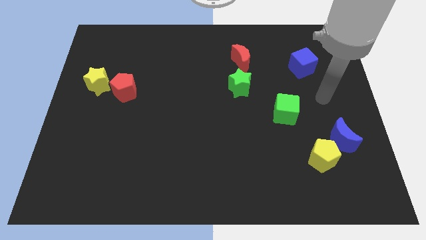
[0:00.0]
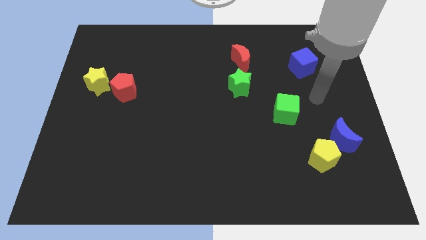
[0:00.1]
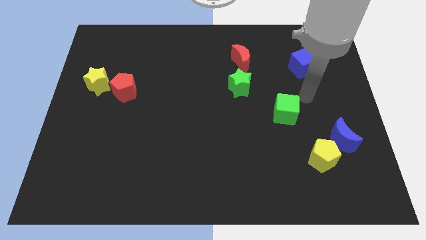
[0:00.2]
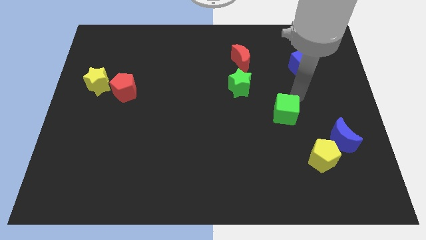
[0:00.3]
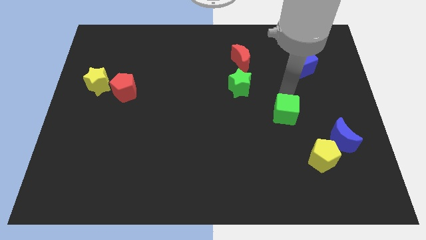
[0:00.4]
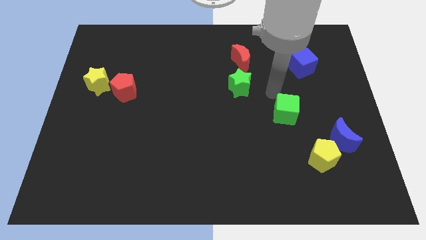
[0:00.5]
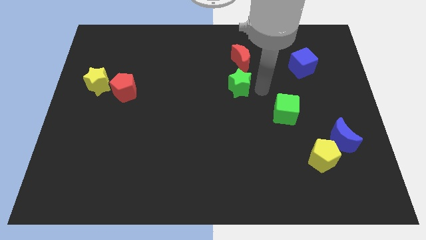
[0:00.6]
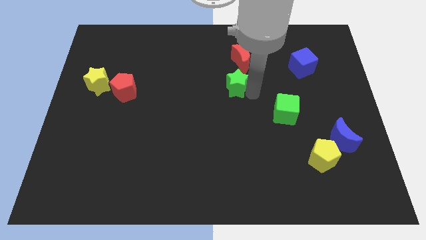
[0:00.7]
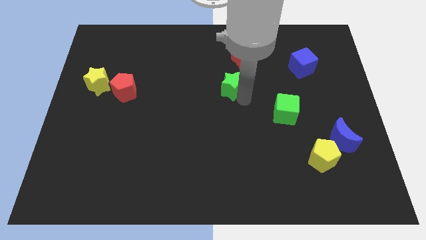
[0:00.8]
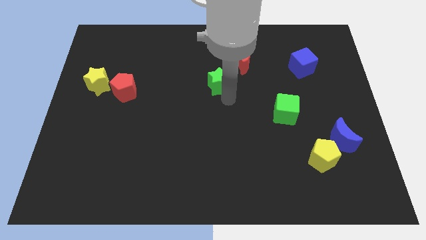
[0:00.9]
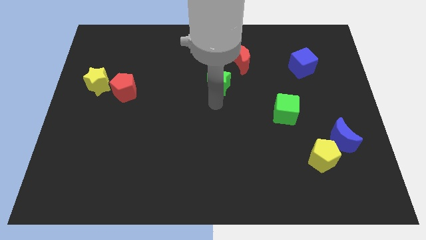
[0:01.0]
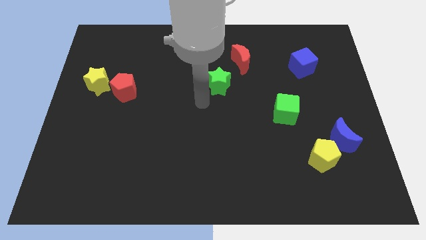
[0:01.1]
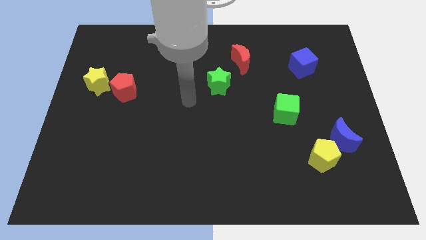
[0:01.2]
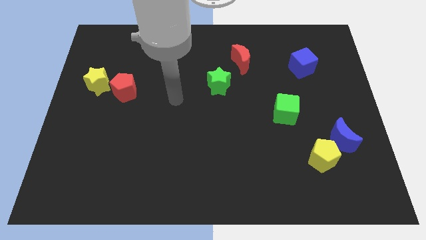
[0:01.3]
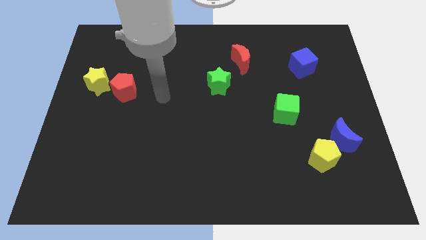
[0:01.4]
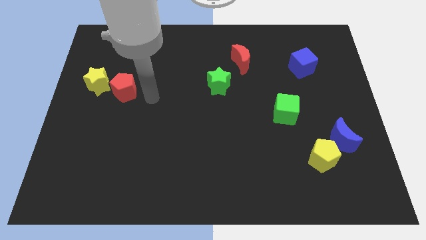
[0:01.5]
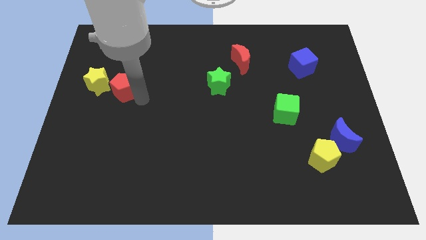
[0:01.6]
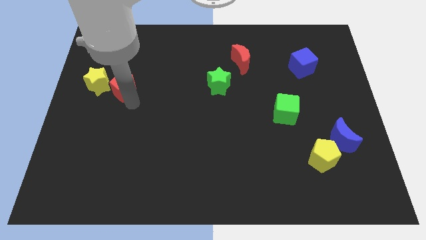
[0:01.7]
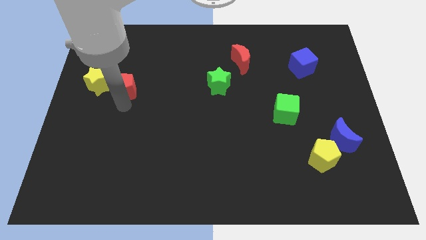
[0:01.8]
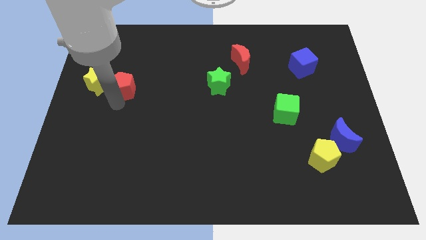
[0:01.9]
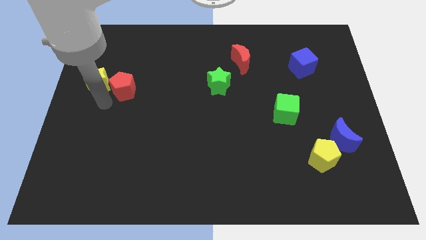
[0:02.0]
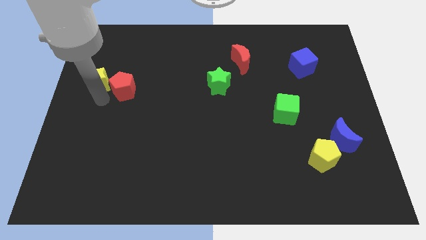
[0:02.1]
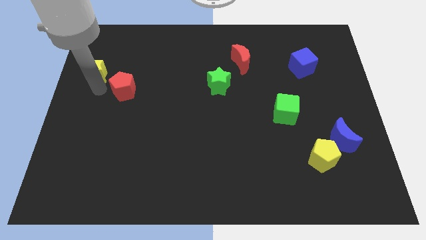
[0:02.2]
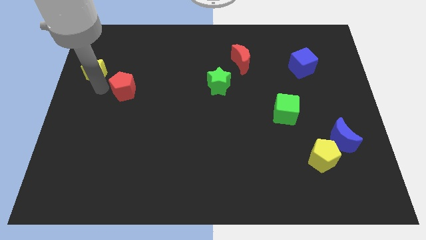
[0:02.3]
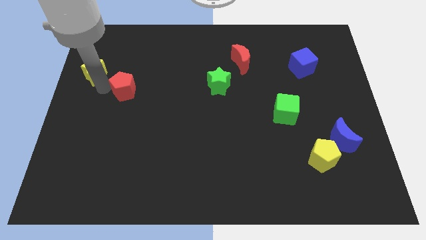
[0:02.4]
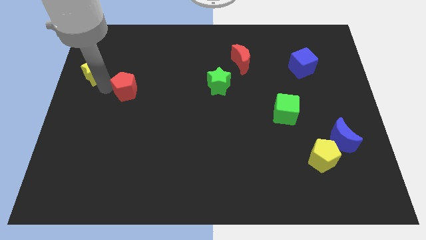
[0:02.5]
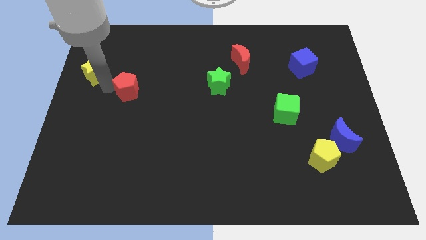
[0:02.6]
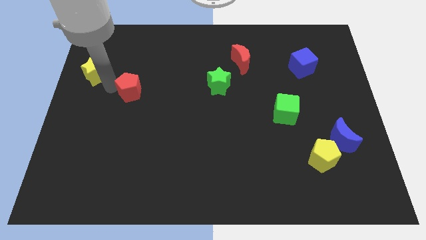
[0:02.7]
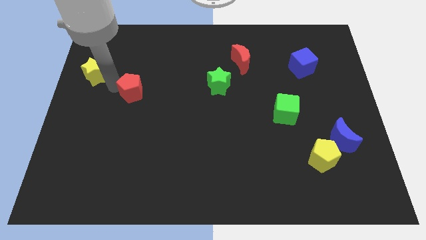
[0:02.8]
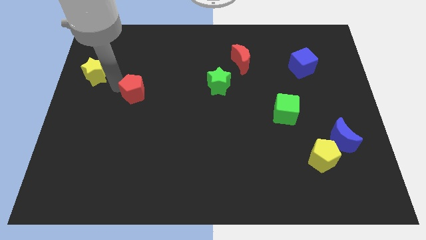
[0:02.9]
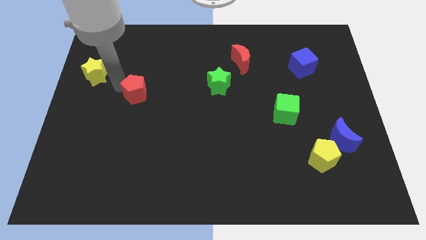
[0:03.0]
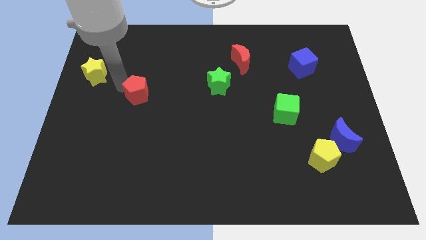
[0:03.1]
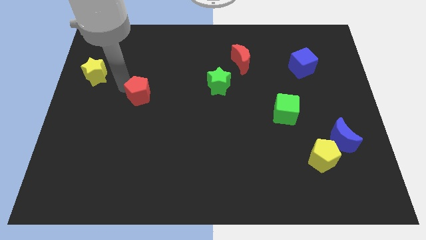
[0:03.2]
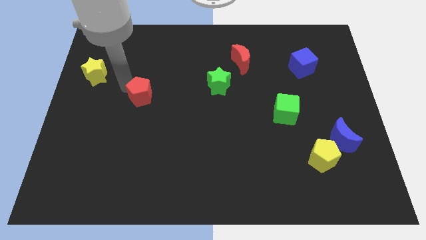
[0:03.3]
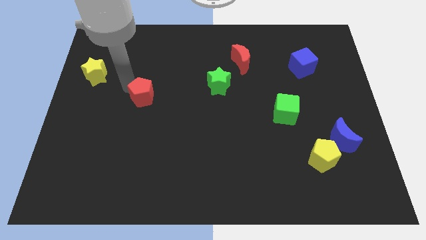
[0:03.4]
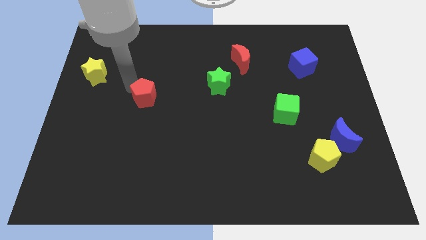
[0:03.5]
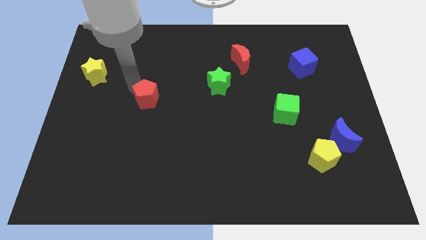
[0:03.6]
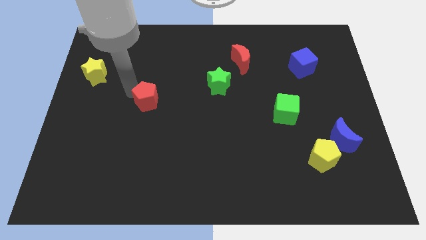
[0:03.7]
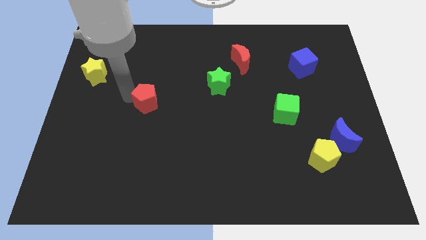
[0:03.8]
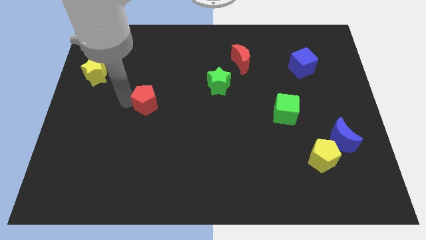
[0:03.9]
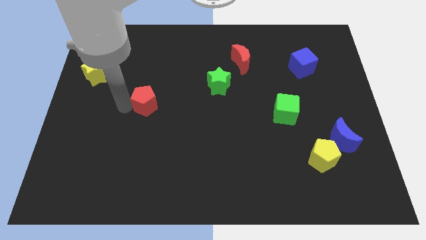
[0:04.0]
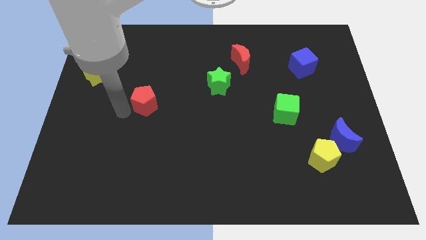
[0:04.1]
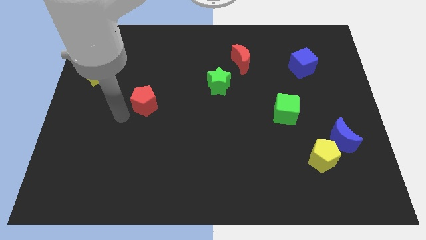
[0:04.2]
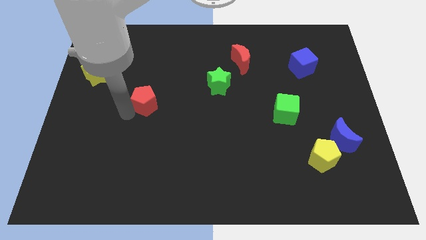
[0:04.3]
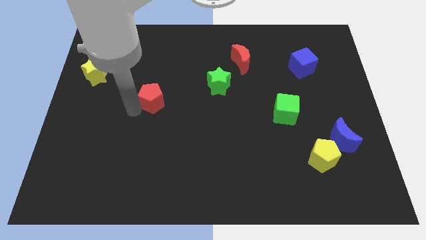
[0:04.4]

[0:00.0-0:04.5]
slightly move the red pentagon to the right

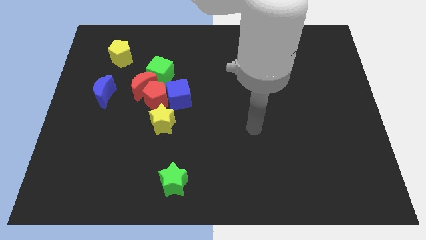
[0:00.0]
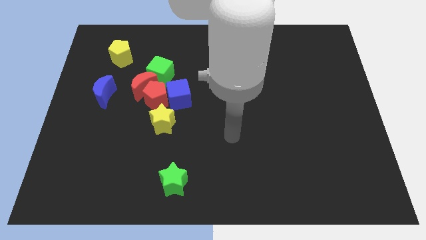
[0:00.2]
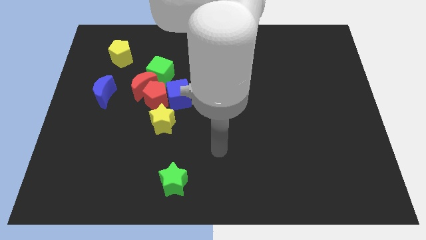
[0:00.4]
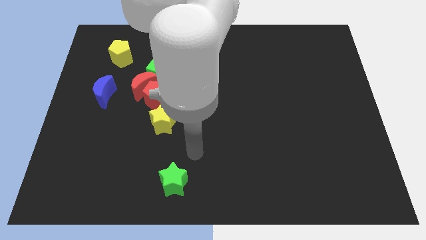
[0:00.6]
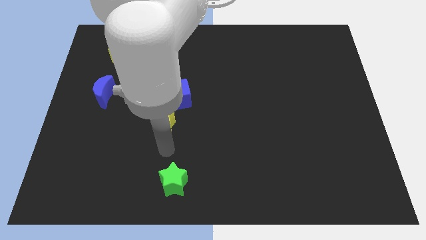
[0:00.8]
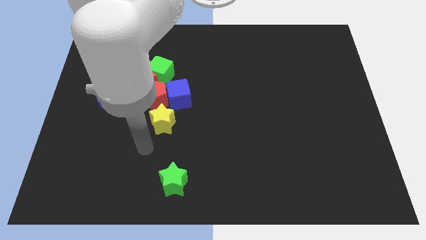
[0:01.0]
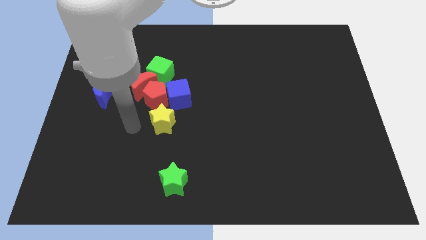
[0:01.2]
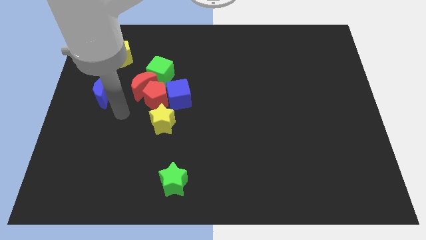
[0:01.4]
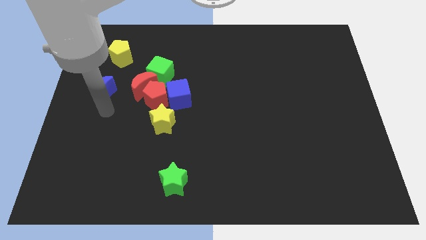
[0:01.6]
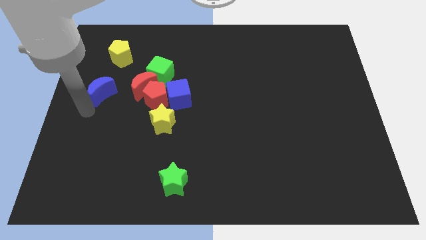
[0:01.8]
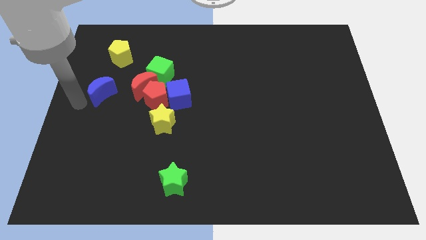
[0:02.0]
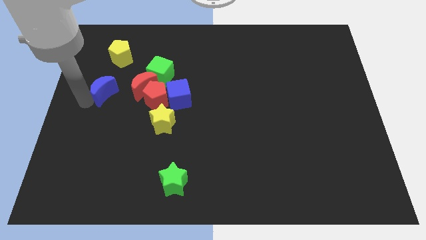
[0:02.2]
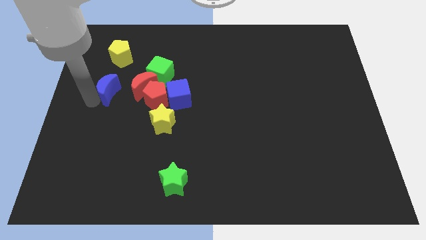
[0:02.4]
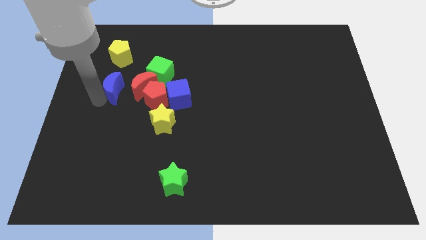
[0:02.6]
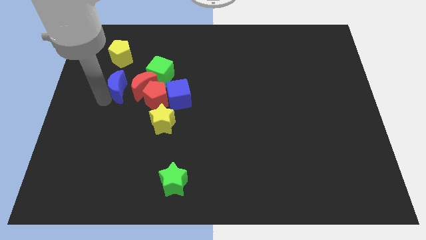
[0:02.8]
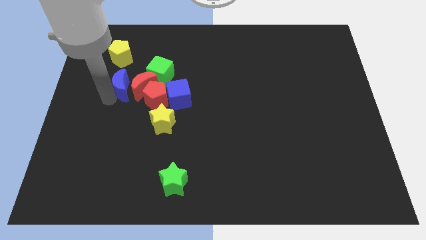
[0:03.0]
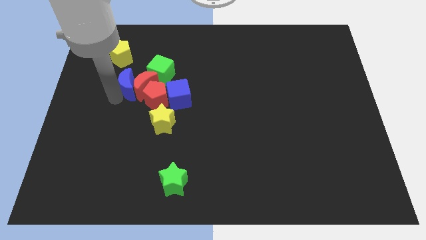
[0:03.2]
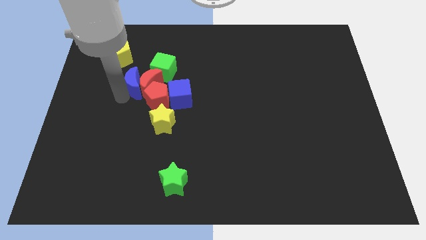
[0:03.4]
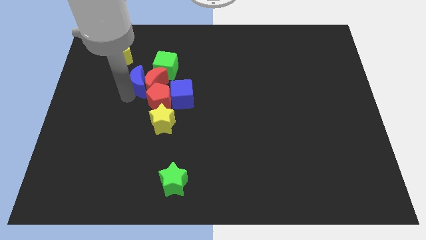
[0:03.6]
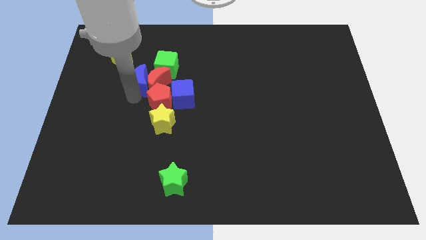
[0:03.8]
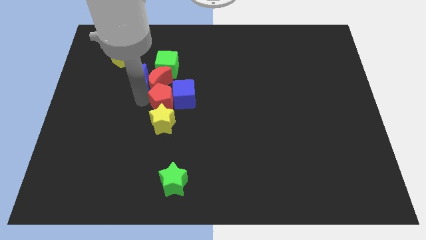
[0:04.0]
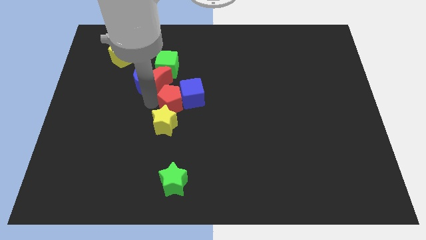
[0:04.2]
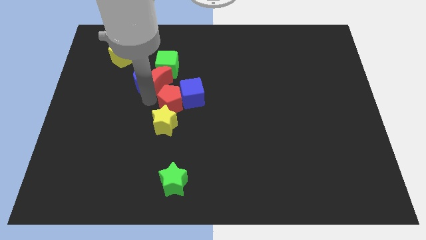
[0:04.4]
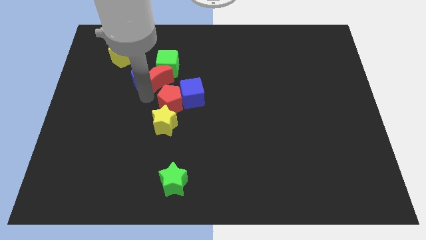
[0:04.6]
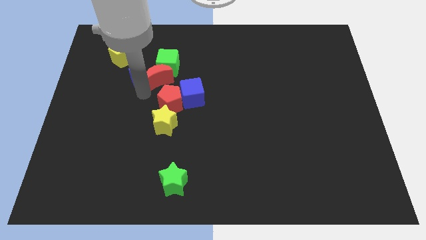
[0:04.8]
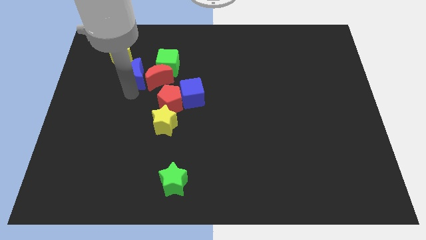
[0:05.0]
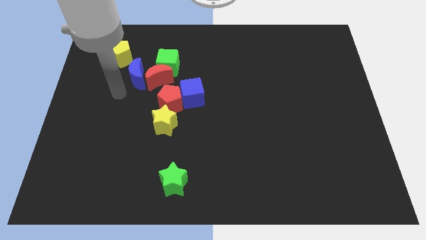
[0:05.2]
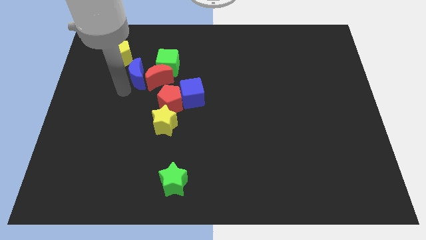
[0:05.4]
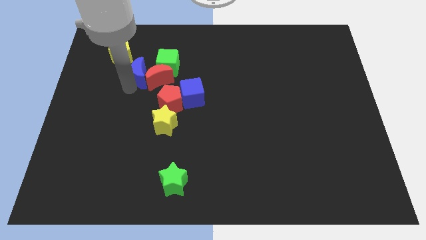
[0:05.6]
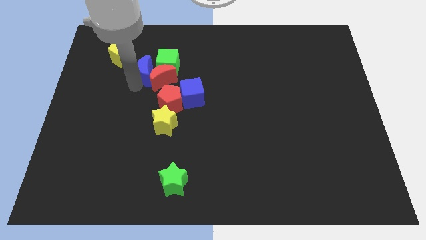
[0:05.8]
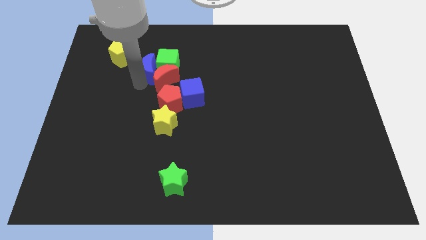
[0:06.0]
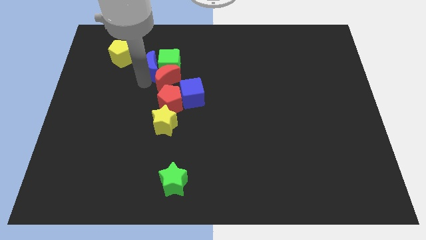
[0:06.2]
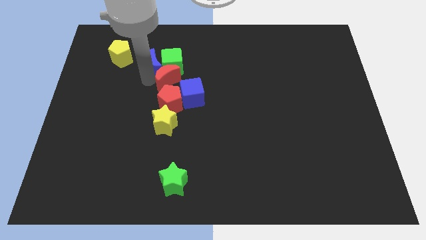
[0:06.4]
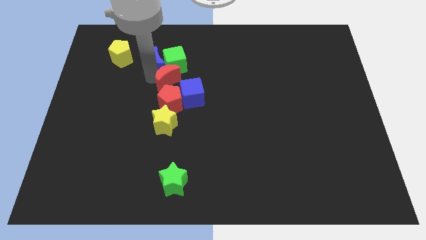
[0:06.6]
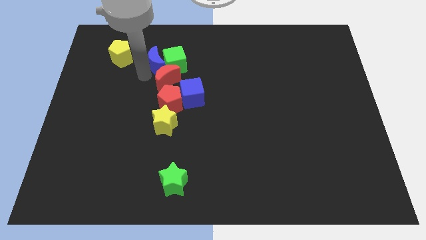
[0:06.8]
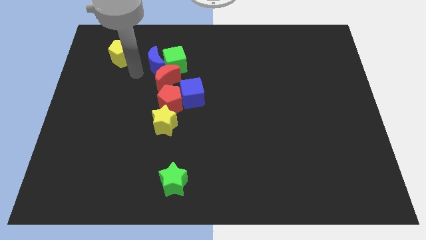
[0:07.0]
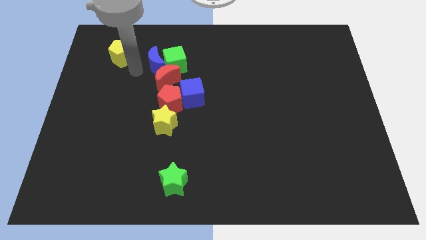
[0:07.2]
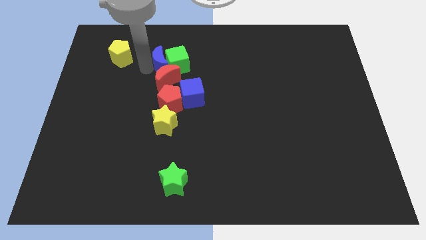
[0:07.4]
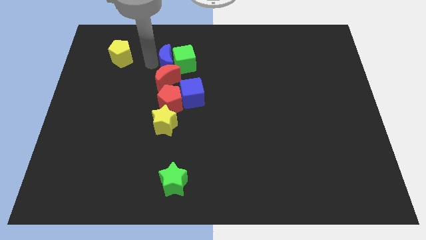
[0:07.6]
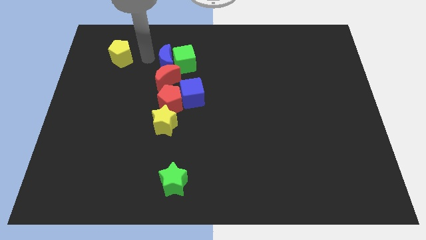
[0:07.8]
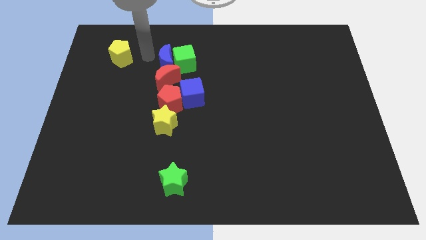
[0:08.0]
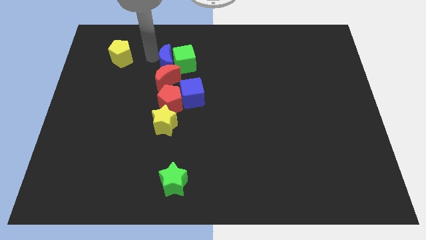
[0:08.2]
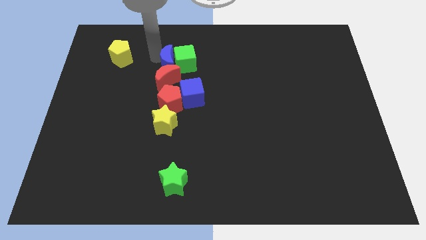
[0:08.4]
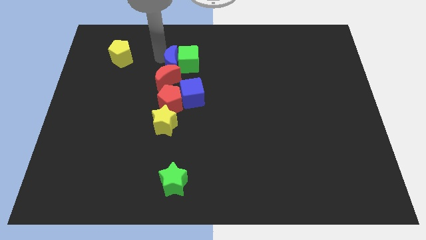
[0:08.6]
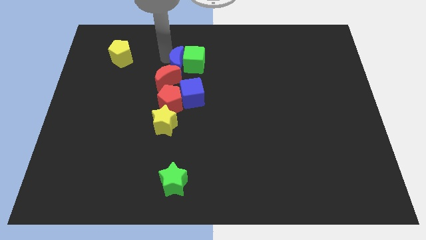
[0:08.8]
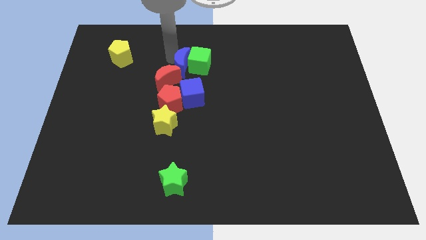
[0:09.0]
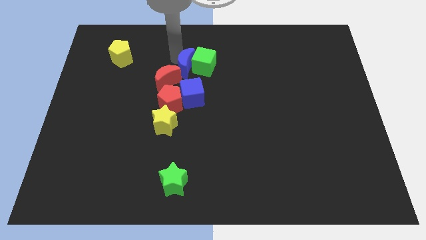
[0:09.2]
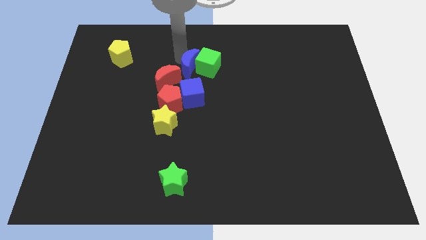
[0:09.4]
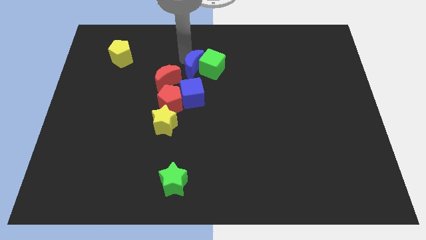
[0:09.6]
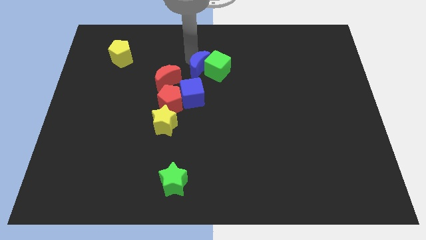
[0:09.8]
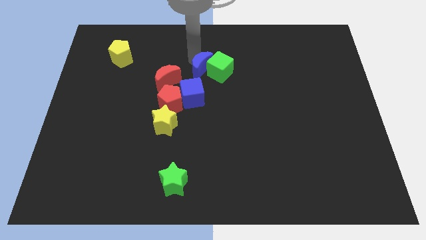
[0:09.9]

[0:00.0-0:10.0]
move the blue moon to the right
